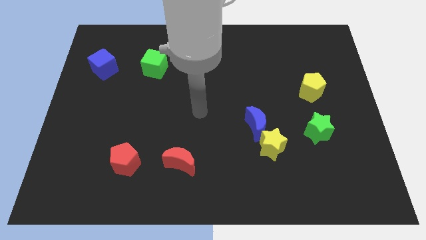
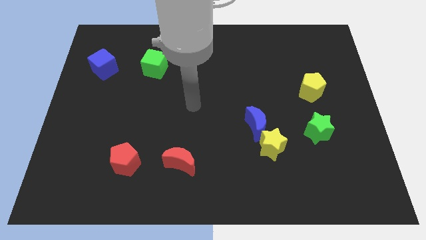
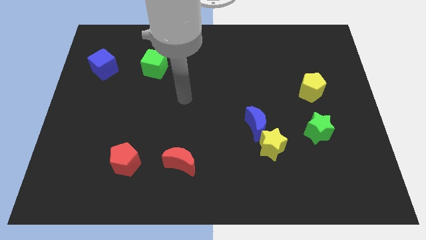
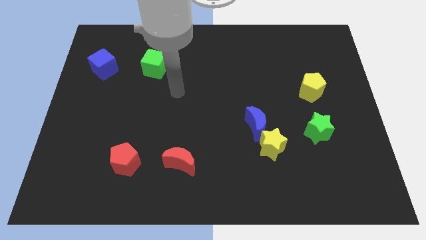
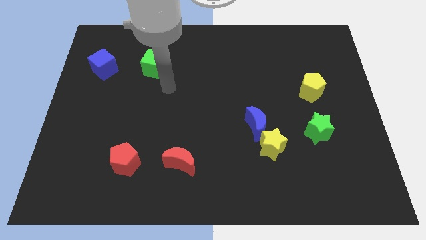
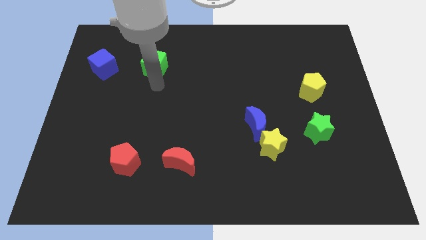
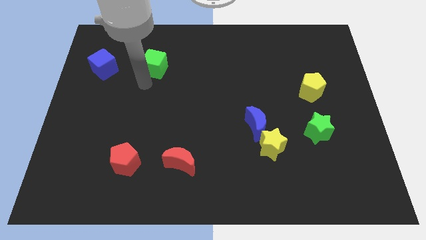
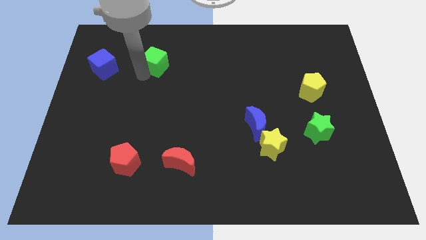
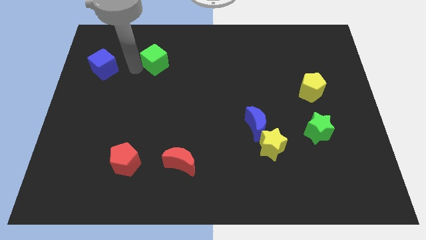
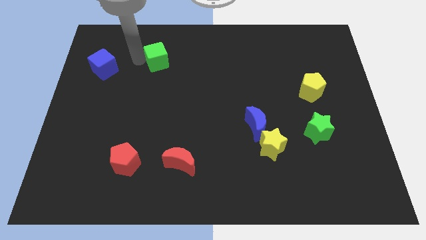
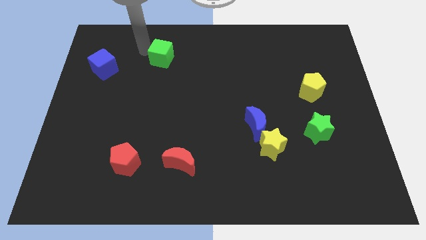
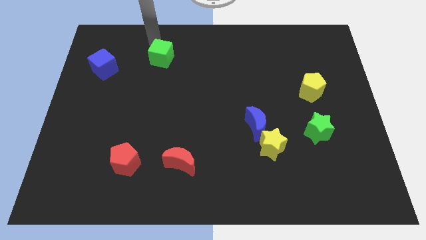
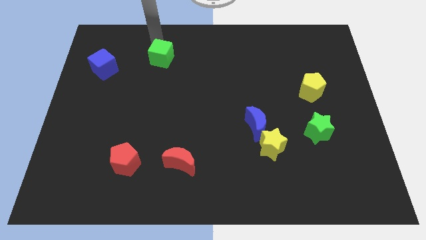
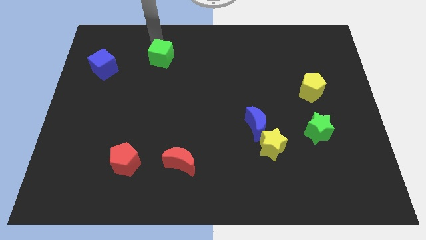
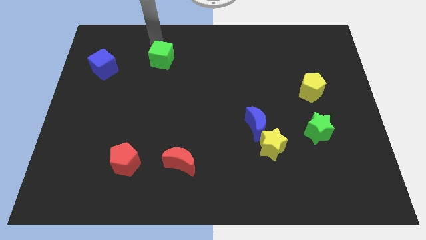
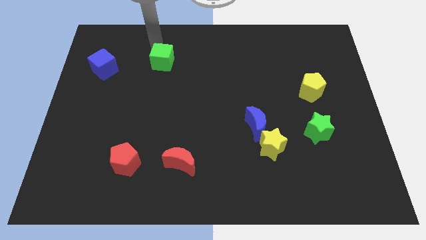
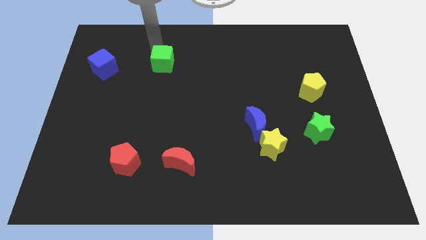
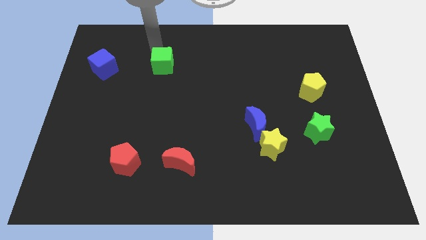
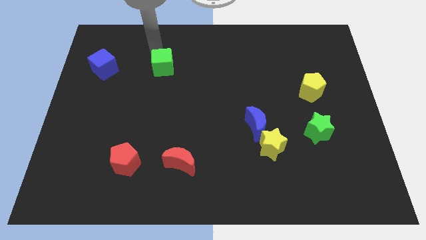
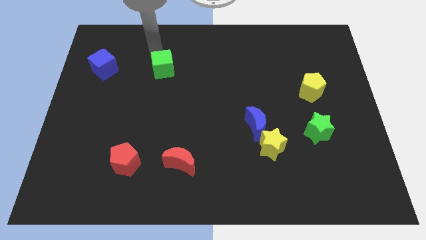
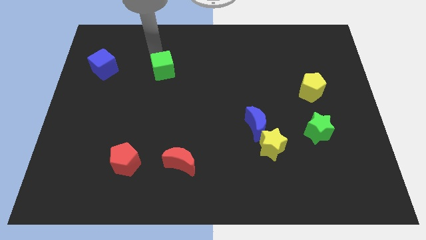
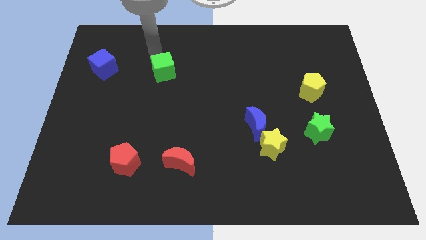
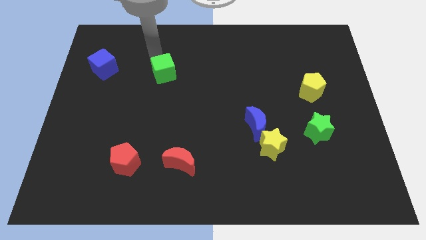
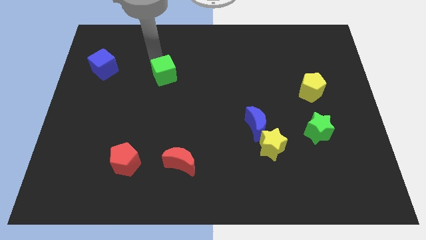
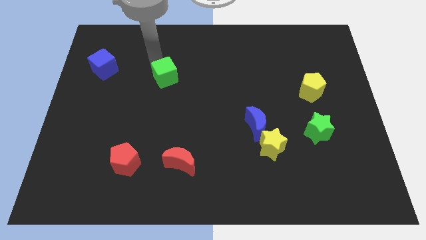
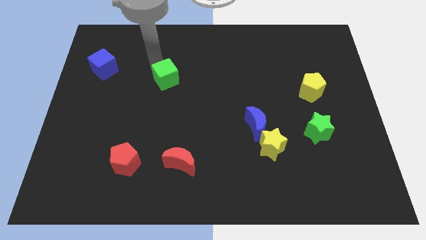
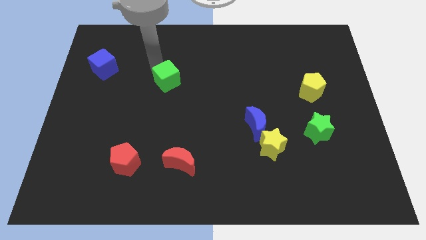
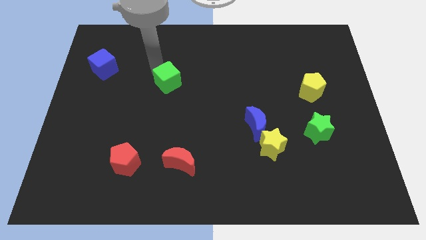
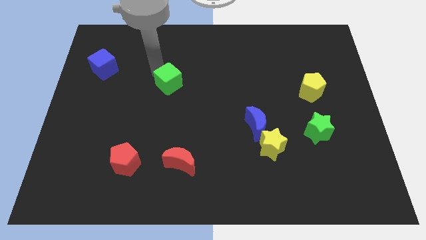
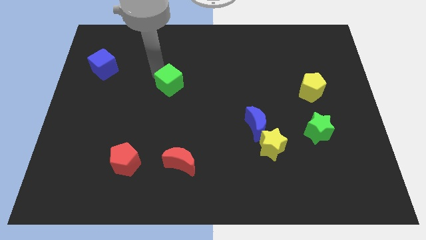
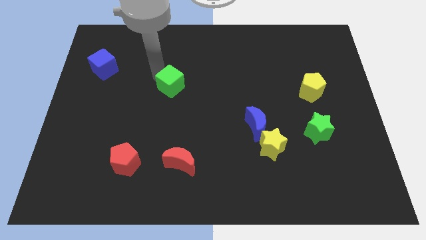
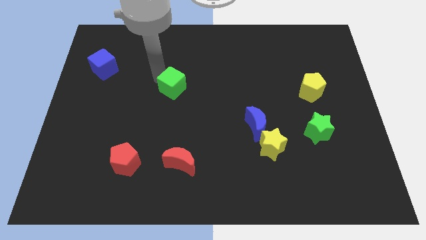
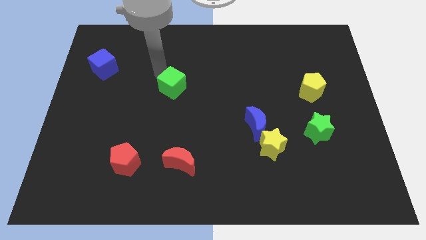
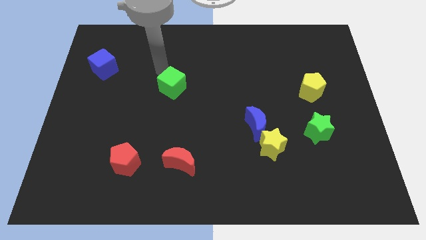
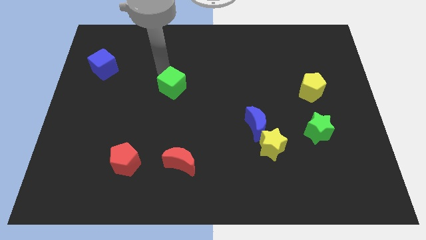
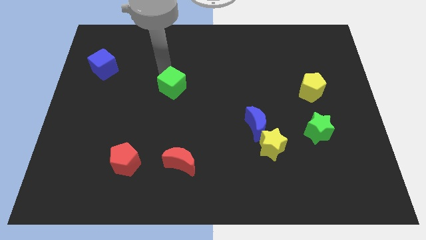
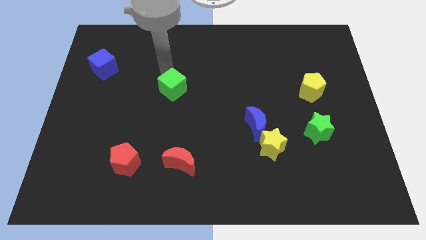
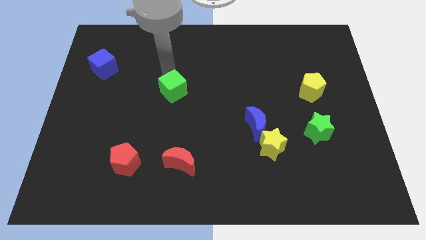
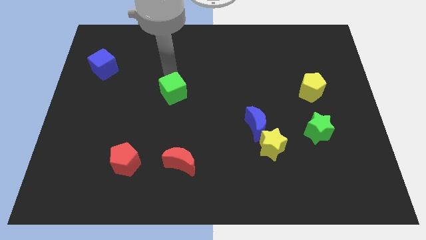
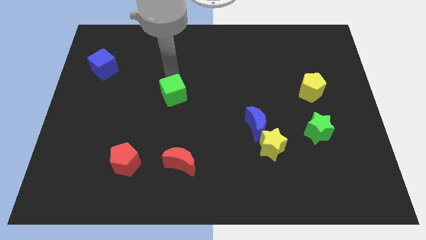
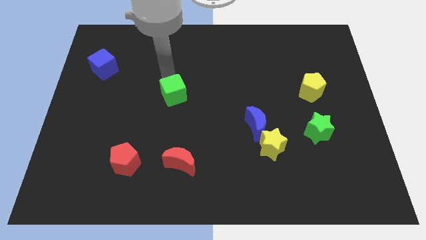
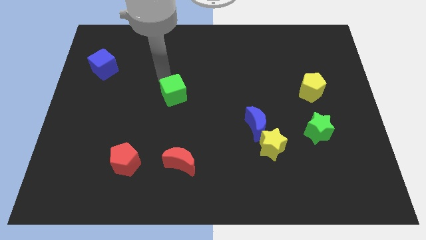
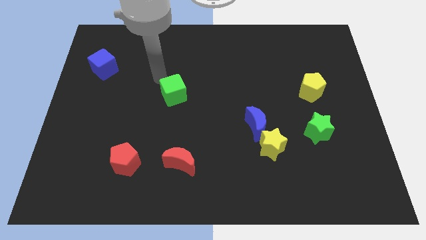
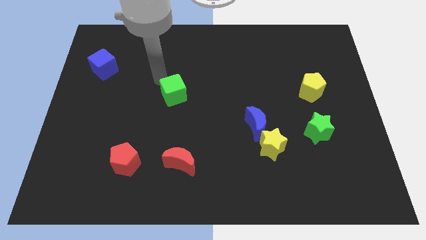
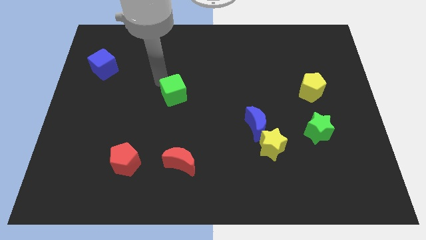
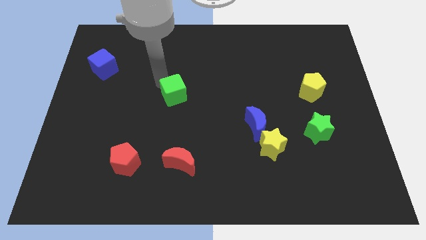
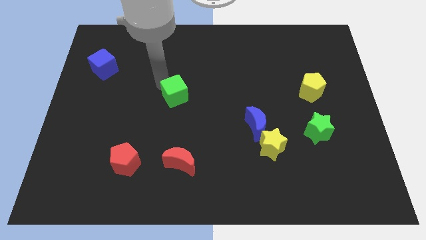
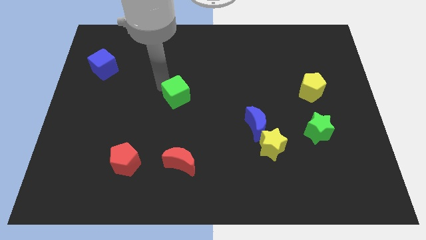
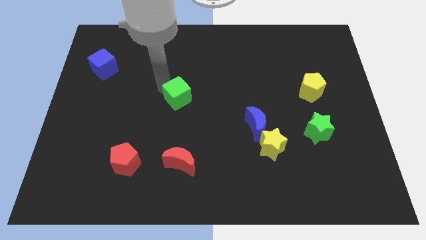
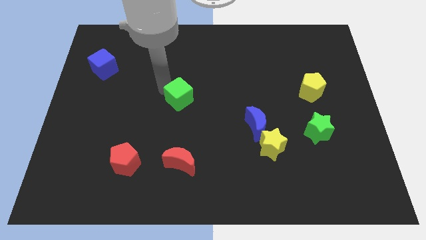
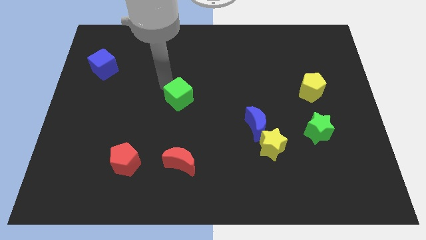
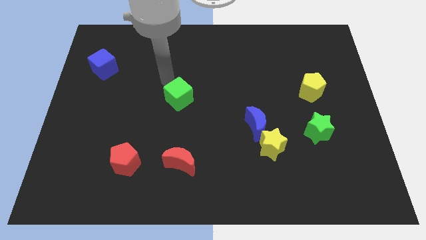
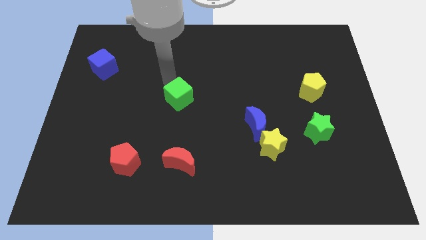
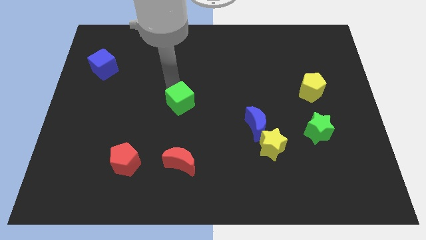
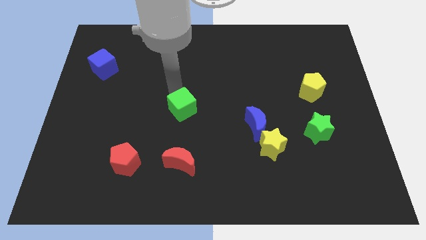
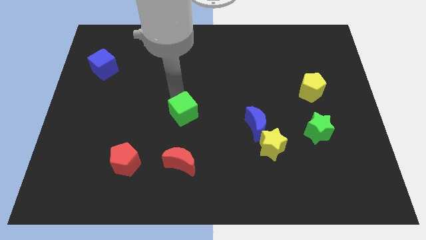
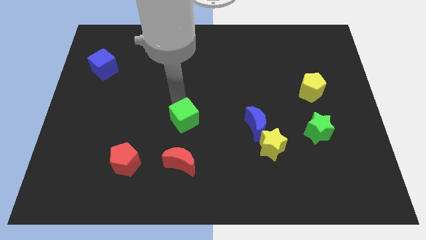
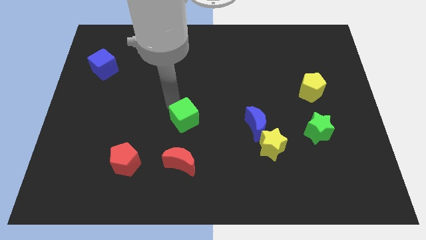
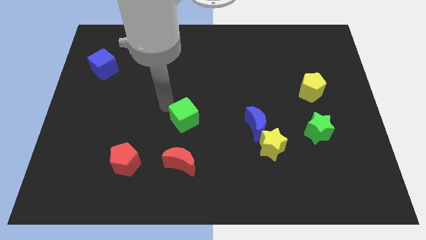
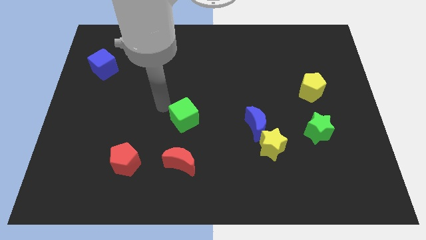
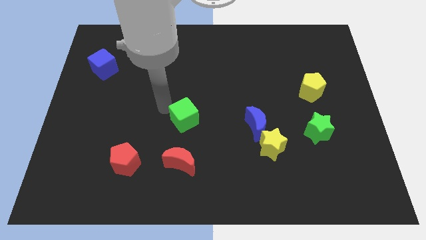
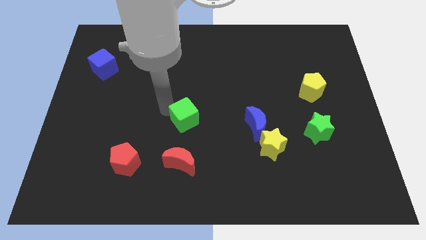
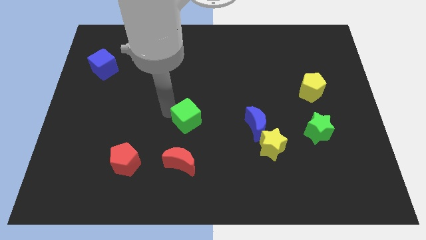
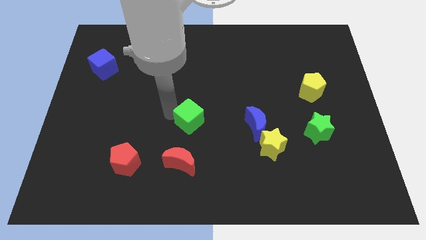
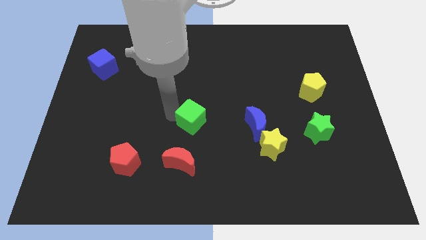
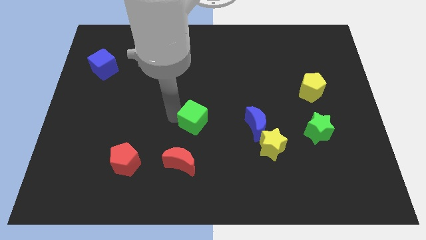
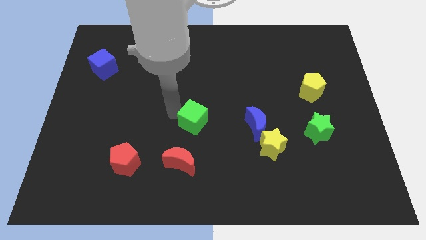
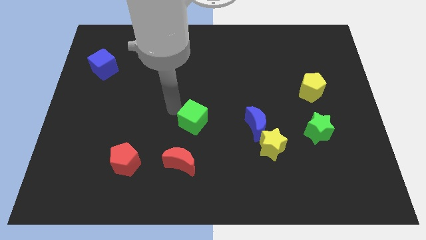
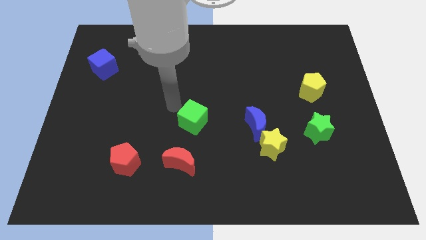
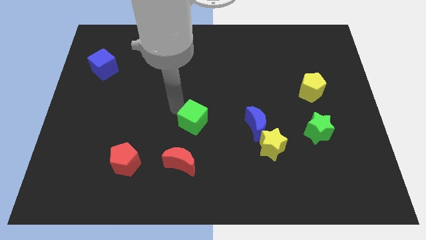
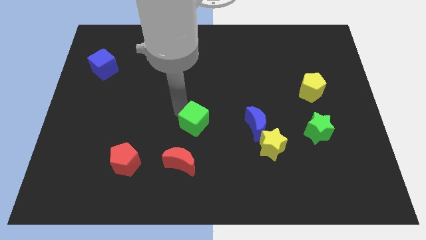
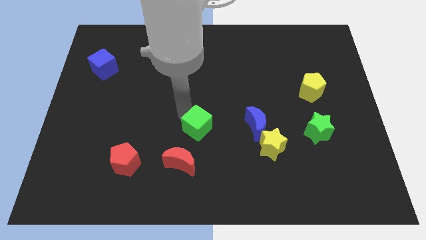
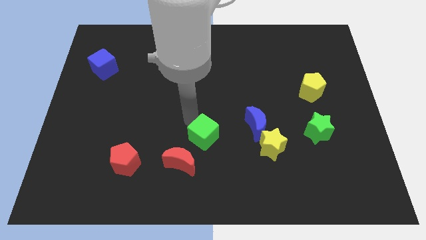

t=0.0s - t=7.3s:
slide the green cube to the left of the yellow star
